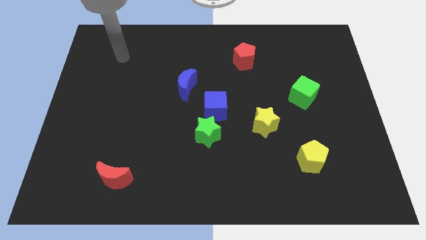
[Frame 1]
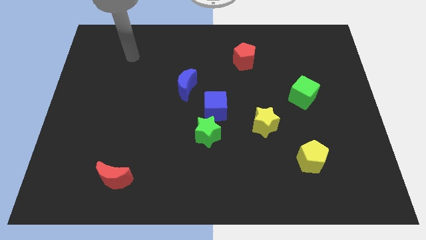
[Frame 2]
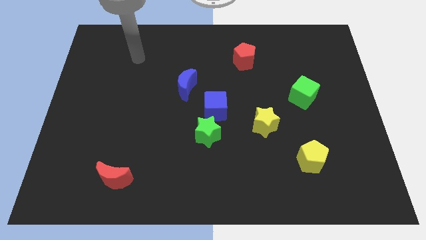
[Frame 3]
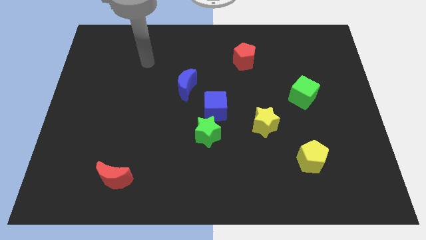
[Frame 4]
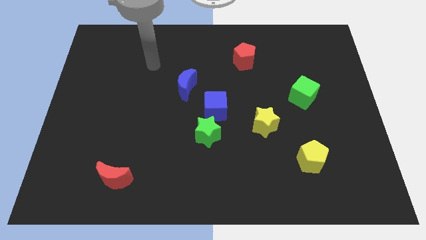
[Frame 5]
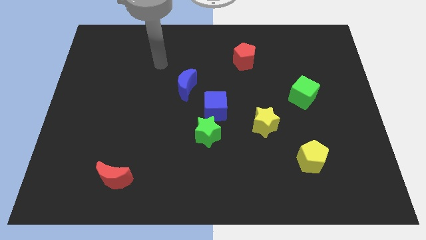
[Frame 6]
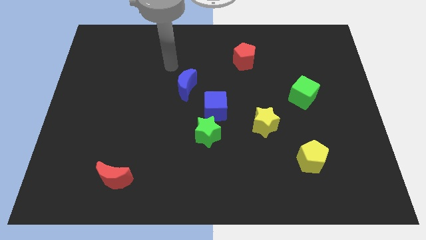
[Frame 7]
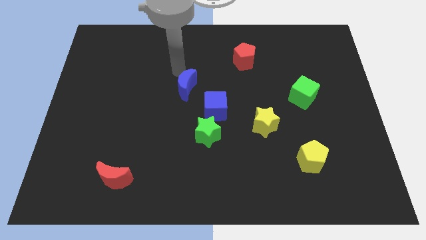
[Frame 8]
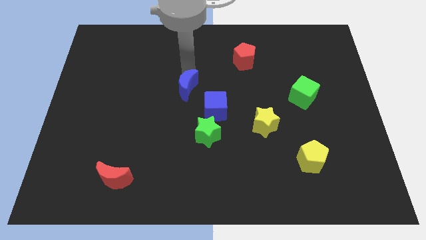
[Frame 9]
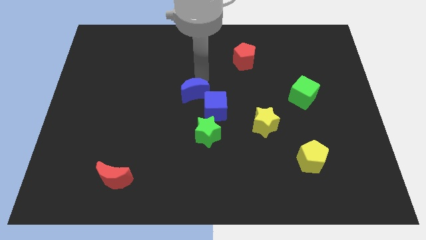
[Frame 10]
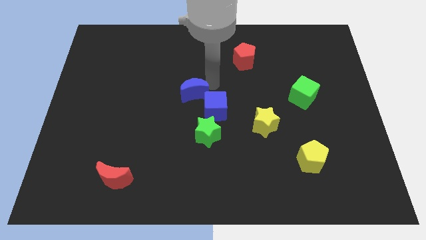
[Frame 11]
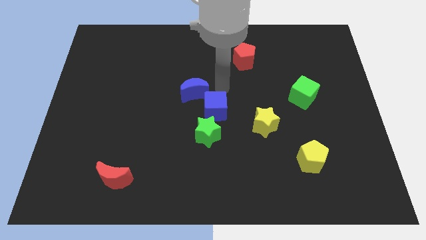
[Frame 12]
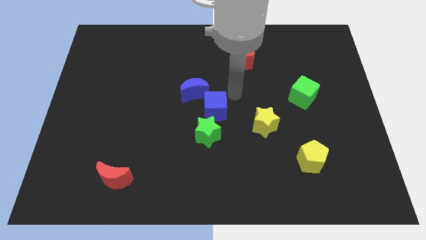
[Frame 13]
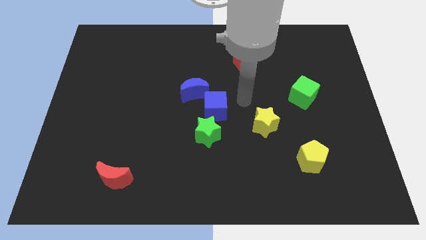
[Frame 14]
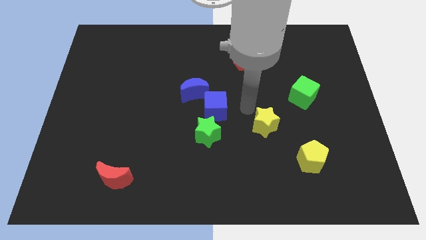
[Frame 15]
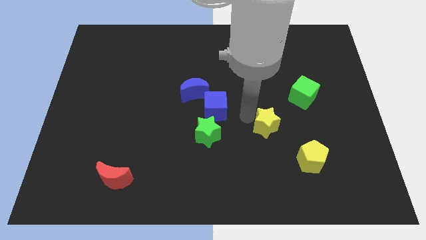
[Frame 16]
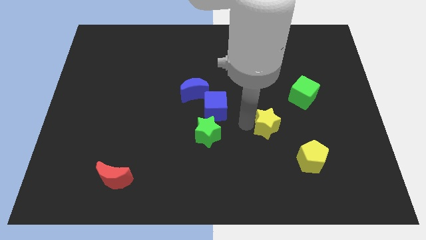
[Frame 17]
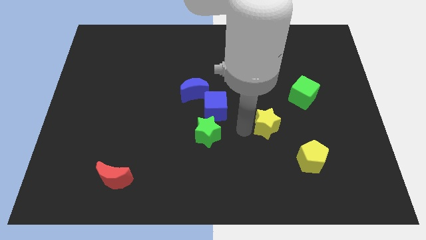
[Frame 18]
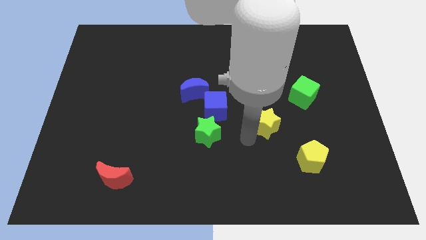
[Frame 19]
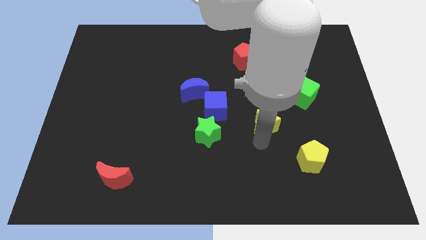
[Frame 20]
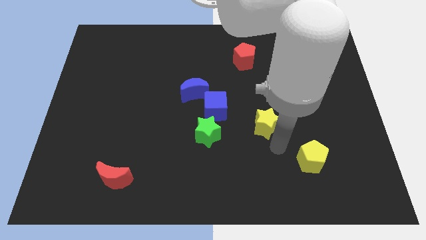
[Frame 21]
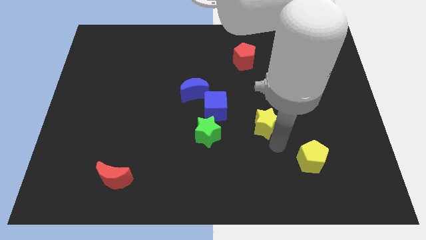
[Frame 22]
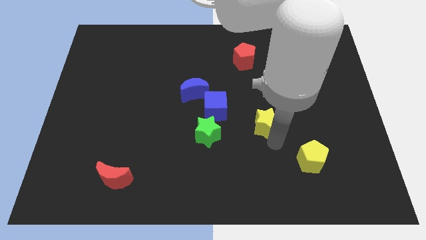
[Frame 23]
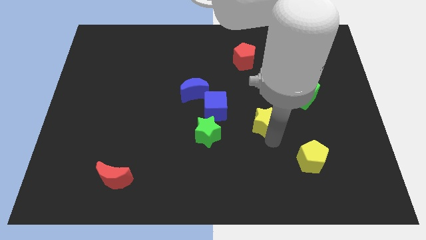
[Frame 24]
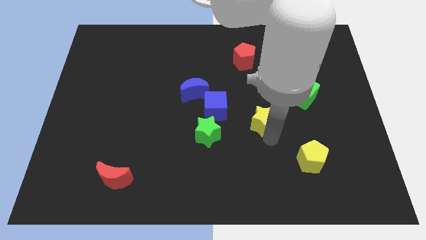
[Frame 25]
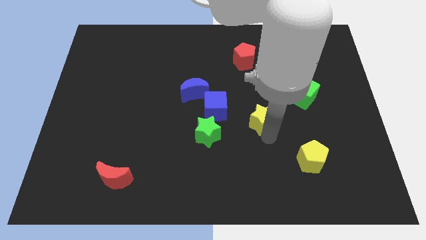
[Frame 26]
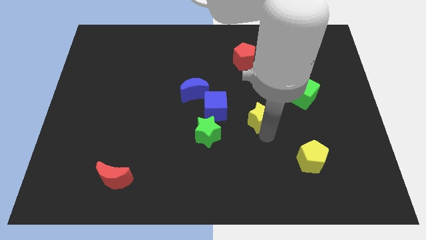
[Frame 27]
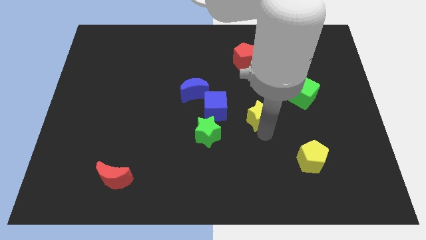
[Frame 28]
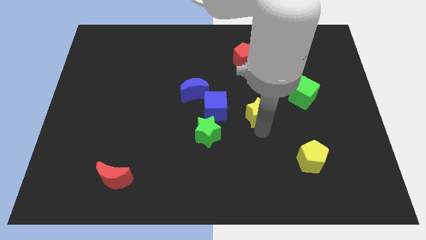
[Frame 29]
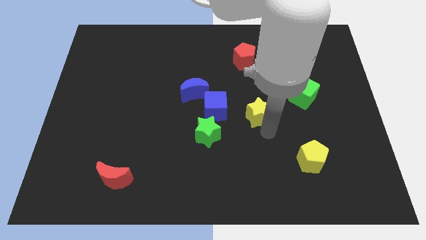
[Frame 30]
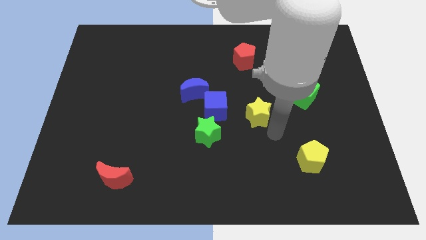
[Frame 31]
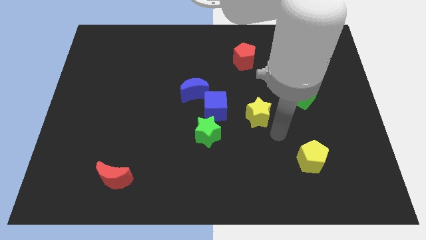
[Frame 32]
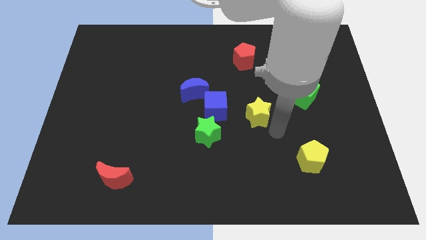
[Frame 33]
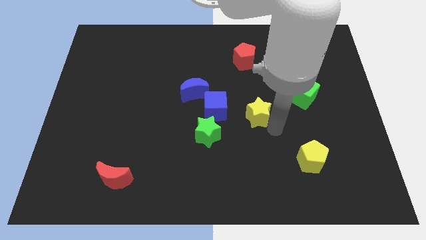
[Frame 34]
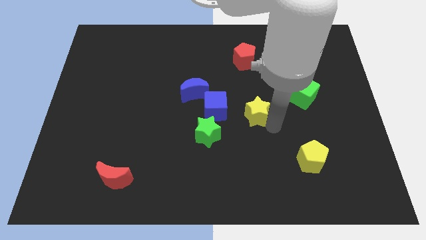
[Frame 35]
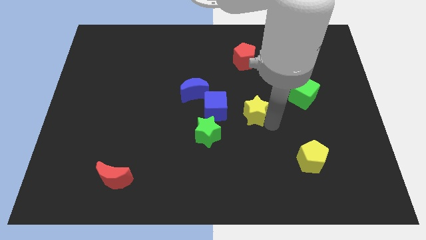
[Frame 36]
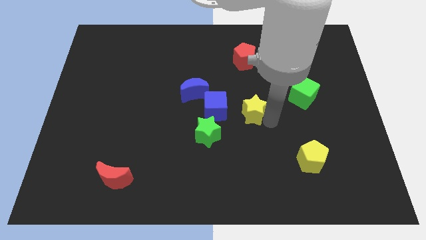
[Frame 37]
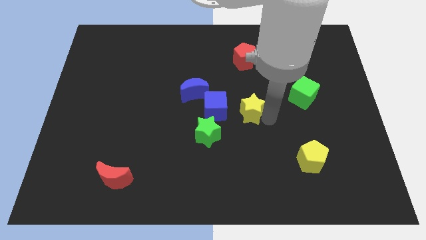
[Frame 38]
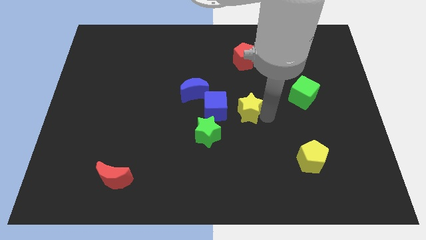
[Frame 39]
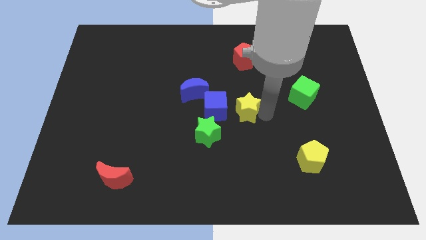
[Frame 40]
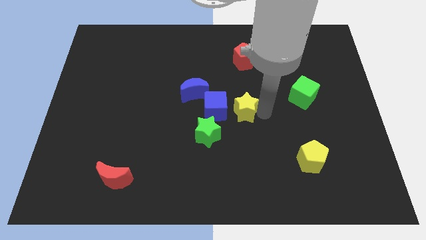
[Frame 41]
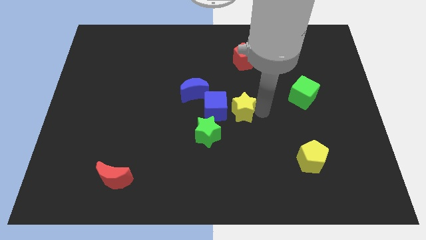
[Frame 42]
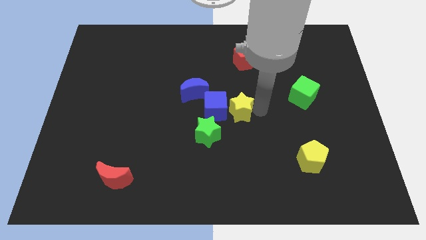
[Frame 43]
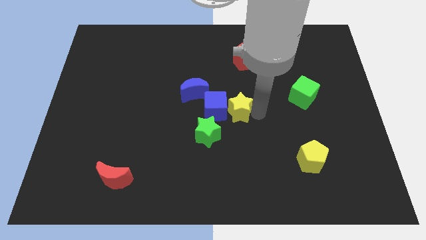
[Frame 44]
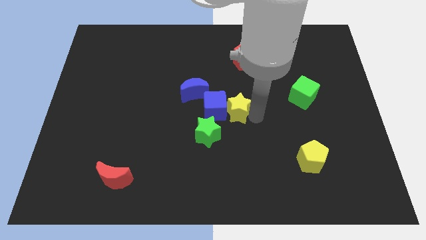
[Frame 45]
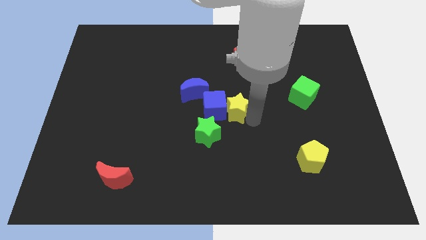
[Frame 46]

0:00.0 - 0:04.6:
slightly move the yellow star up and left

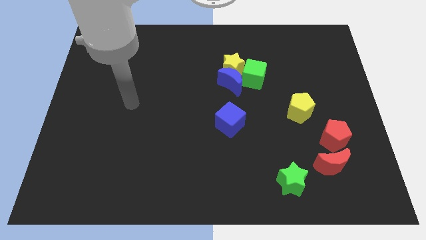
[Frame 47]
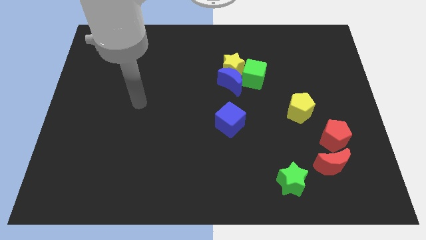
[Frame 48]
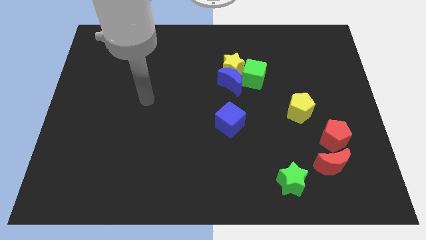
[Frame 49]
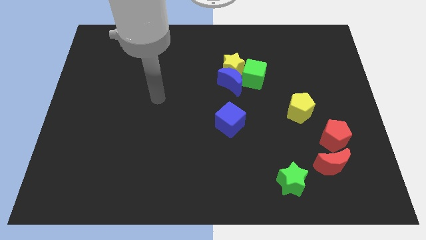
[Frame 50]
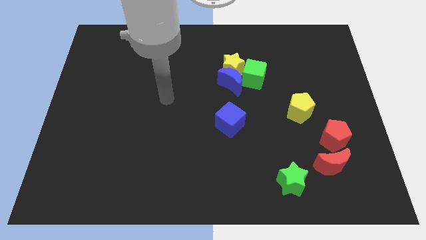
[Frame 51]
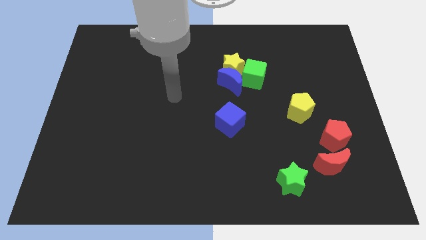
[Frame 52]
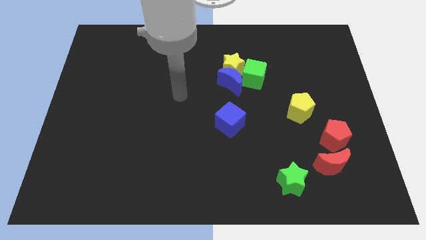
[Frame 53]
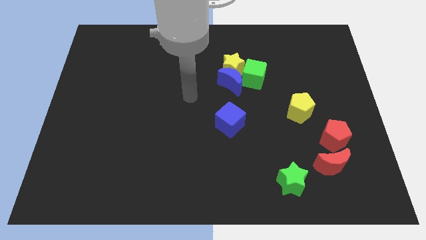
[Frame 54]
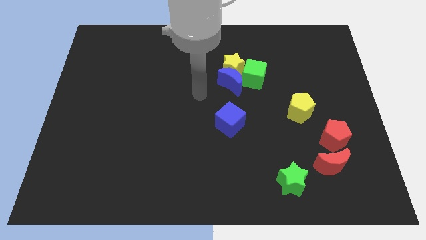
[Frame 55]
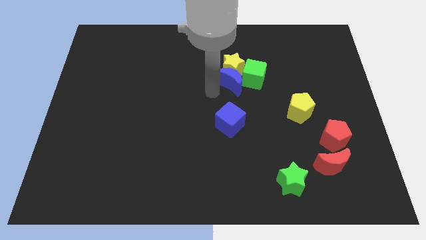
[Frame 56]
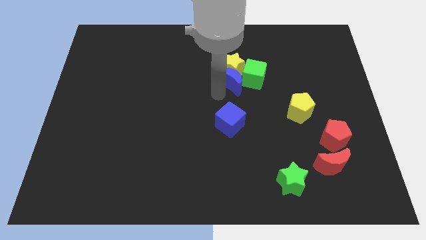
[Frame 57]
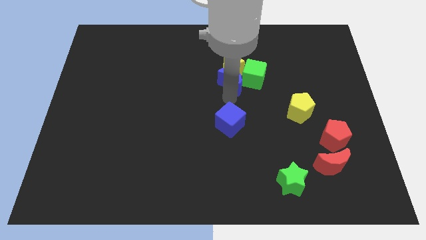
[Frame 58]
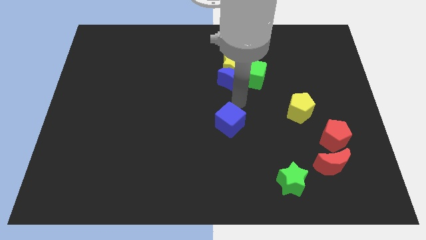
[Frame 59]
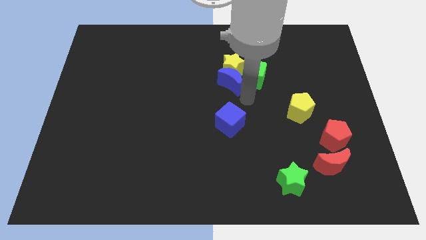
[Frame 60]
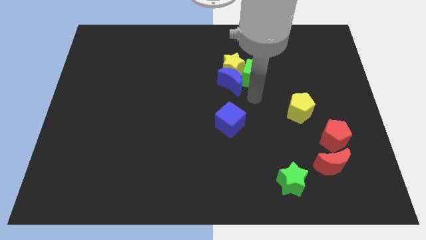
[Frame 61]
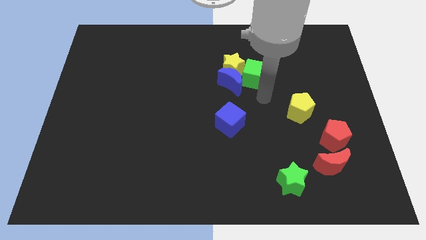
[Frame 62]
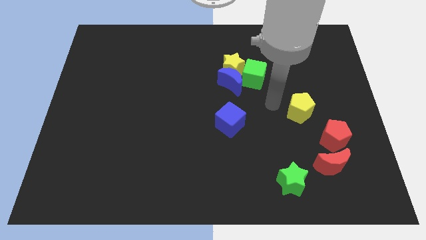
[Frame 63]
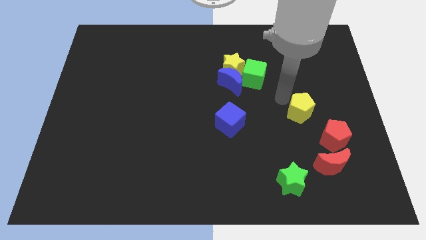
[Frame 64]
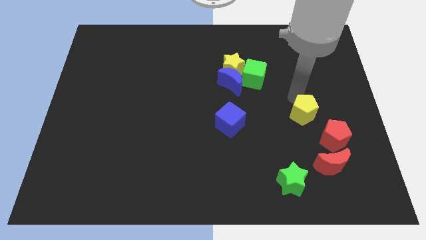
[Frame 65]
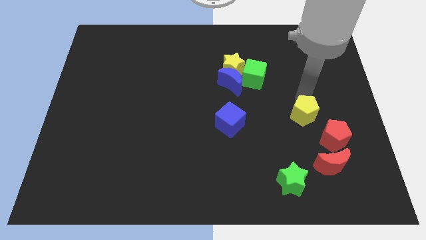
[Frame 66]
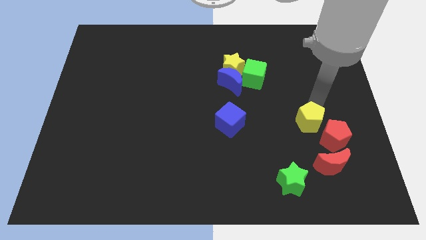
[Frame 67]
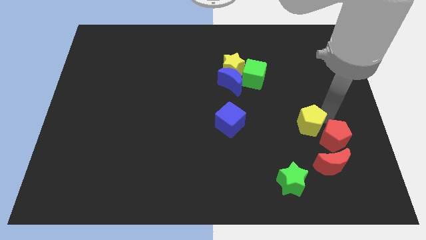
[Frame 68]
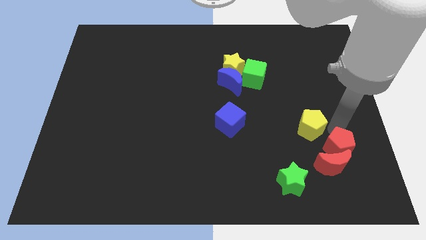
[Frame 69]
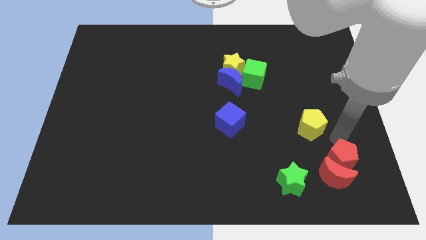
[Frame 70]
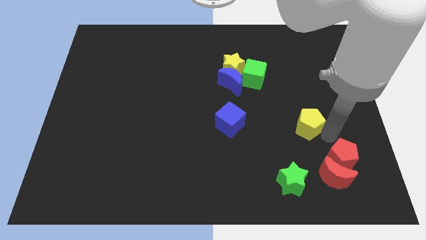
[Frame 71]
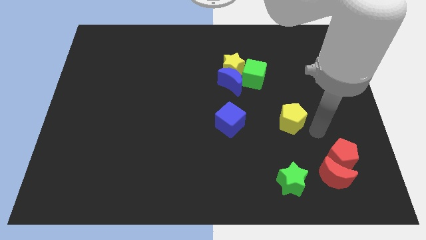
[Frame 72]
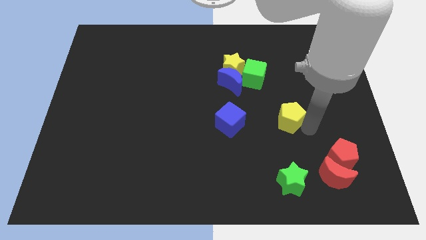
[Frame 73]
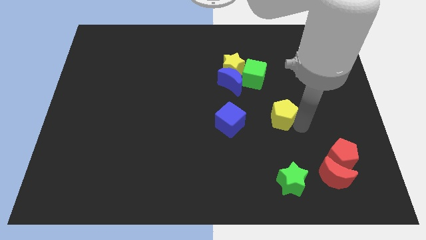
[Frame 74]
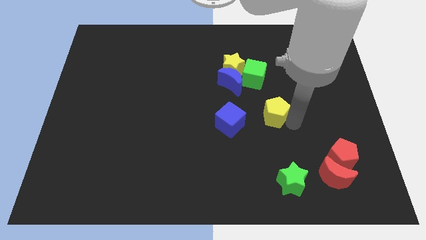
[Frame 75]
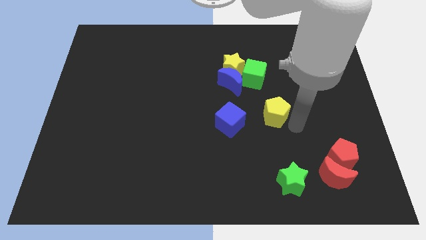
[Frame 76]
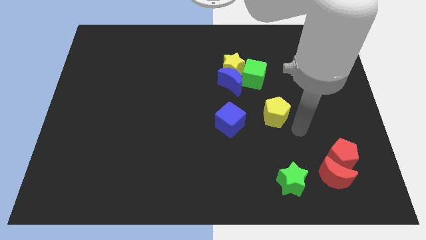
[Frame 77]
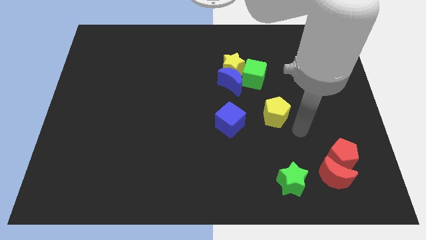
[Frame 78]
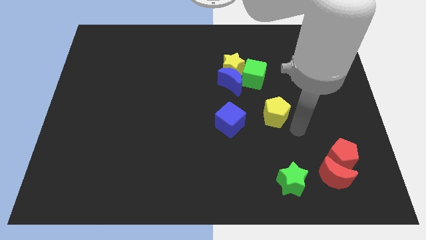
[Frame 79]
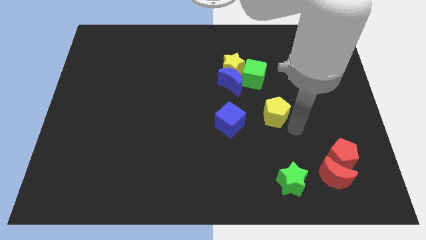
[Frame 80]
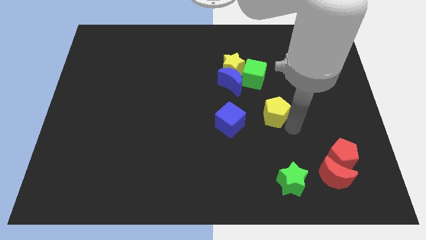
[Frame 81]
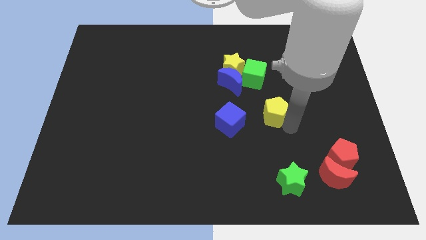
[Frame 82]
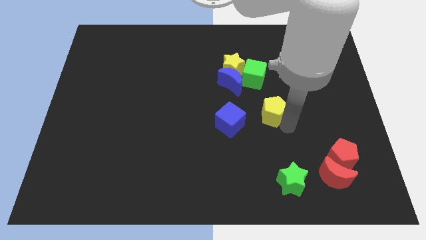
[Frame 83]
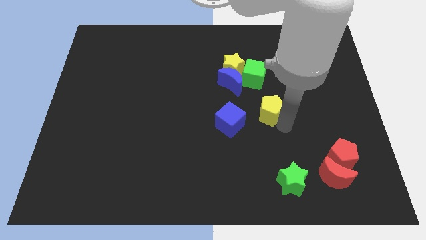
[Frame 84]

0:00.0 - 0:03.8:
push the yellow pentagon left somewhat
